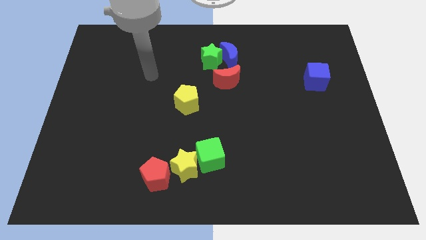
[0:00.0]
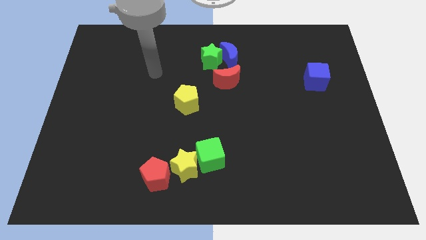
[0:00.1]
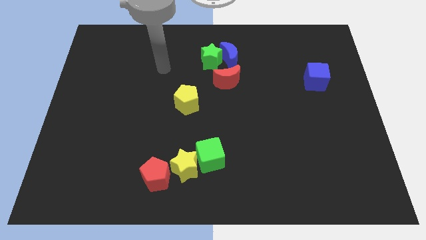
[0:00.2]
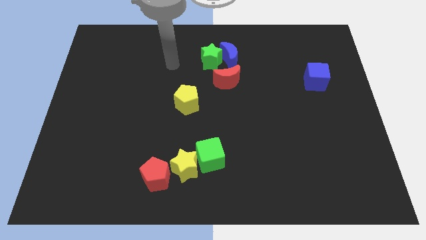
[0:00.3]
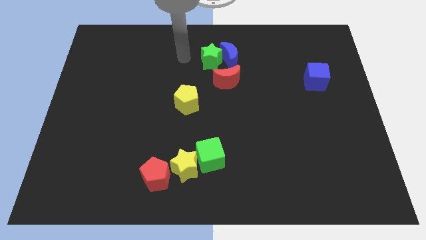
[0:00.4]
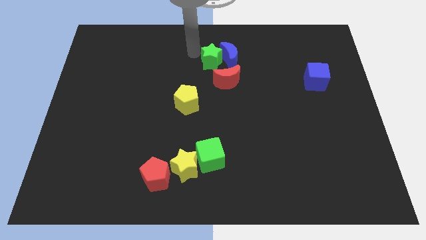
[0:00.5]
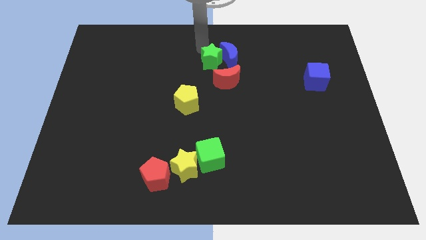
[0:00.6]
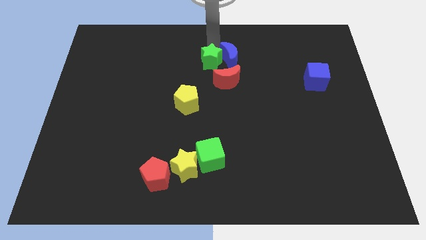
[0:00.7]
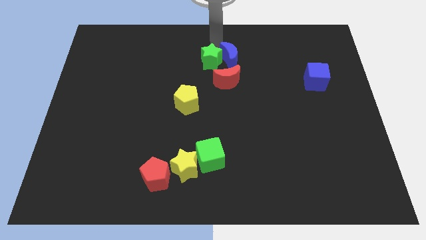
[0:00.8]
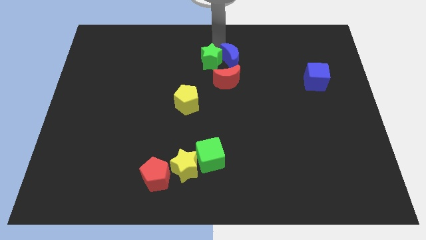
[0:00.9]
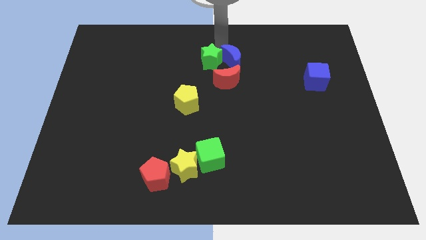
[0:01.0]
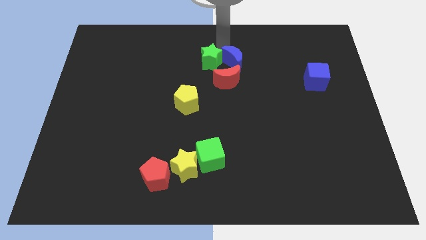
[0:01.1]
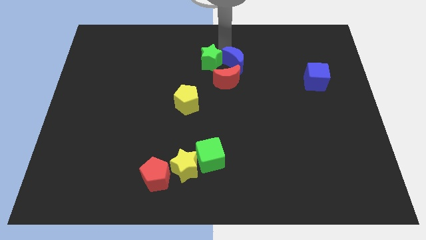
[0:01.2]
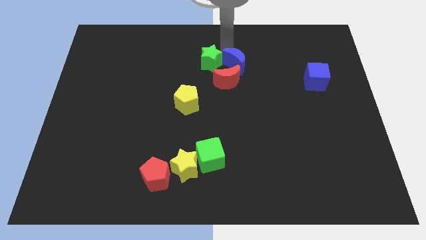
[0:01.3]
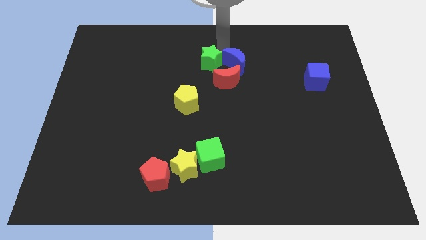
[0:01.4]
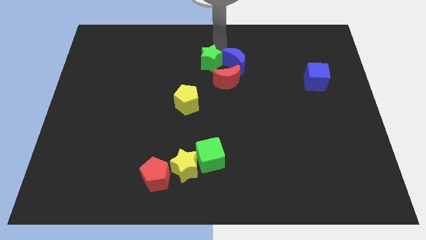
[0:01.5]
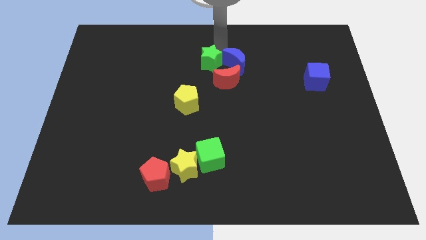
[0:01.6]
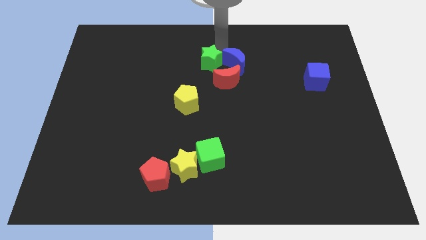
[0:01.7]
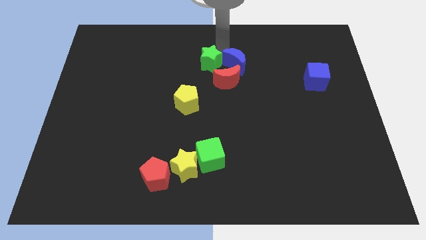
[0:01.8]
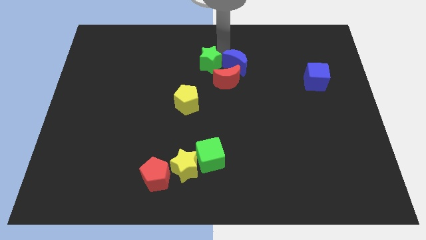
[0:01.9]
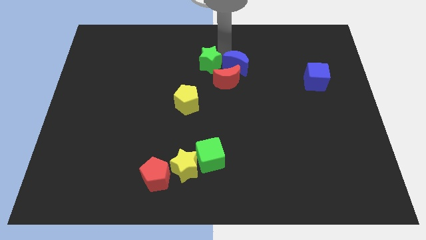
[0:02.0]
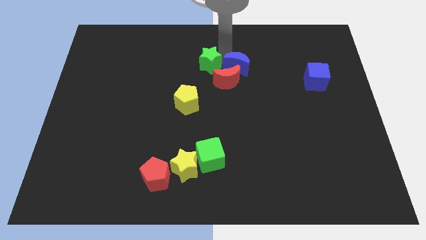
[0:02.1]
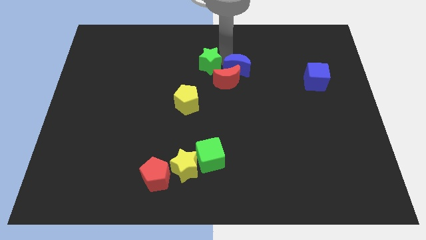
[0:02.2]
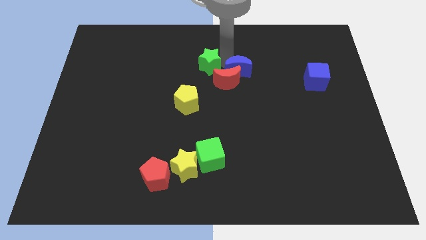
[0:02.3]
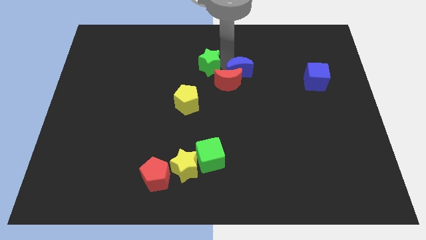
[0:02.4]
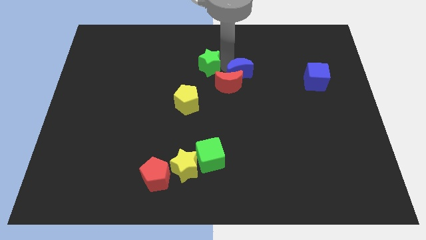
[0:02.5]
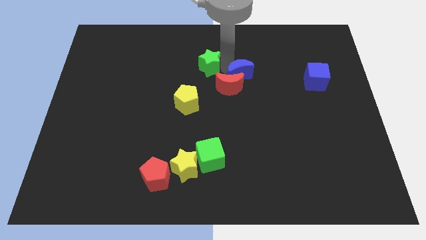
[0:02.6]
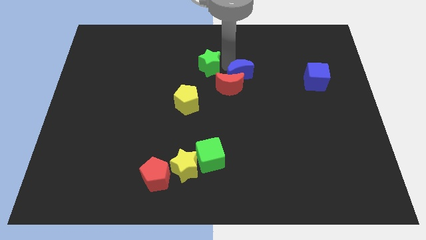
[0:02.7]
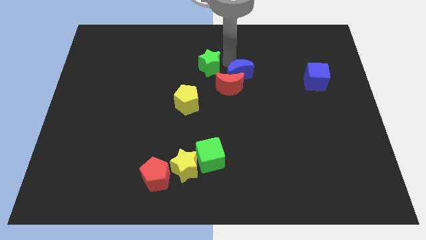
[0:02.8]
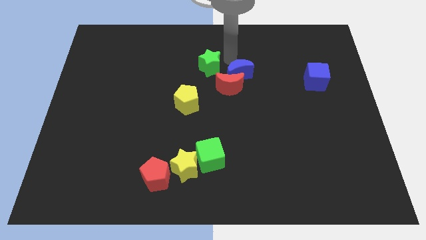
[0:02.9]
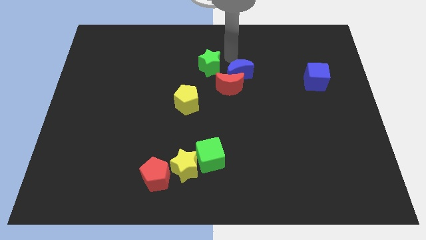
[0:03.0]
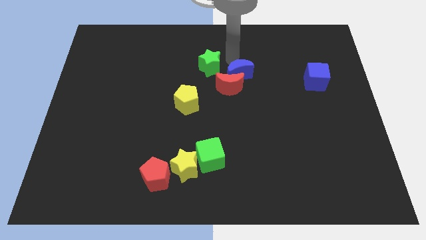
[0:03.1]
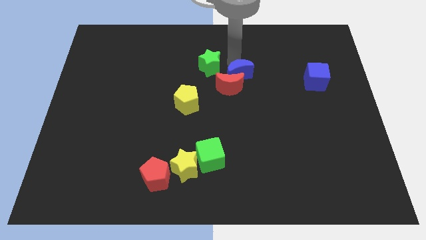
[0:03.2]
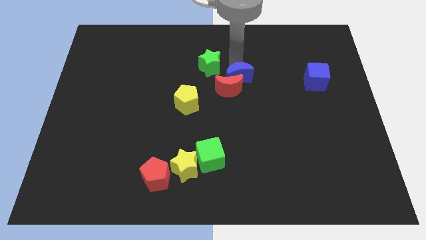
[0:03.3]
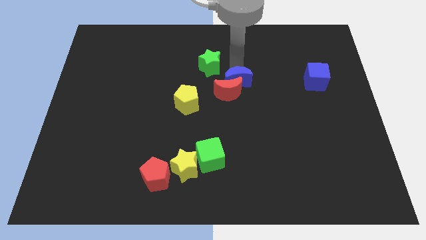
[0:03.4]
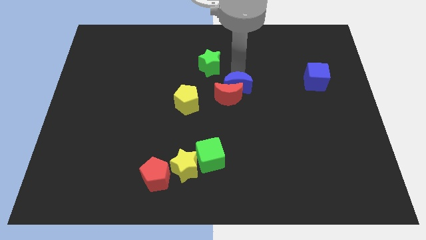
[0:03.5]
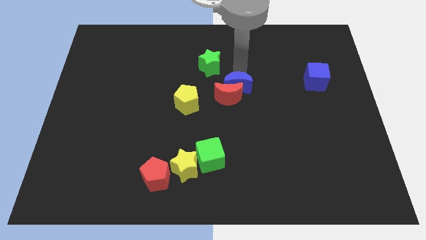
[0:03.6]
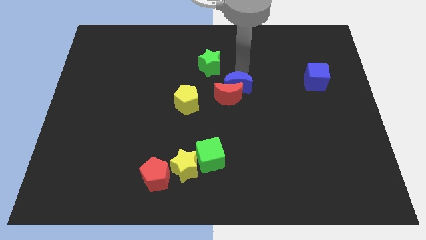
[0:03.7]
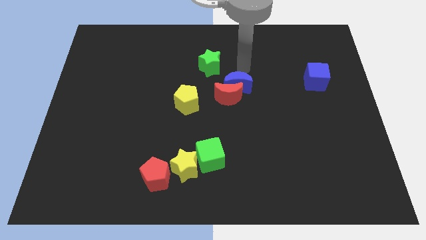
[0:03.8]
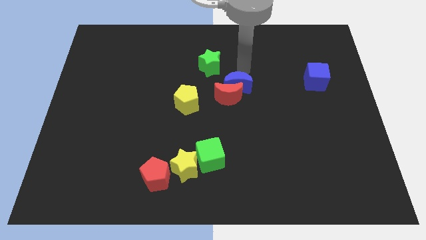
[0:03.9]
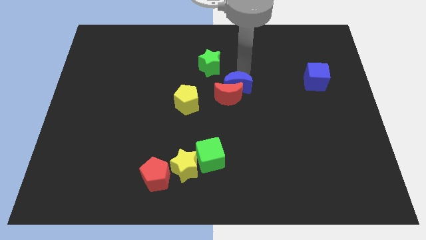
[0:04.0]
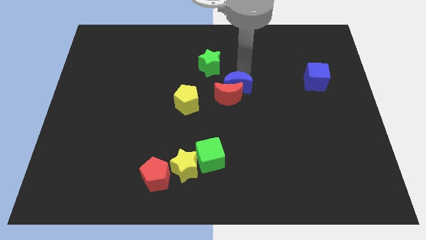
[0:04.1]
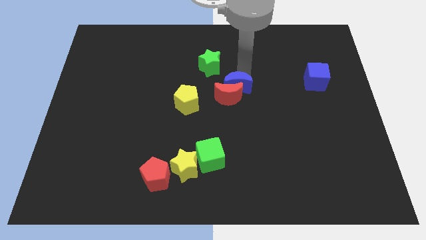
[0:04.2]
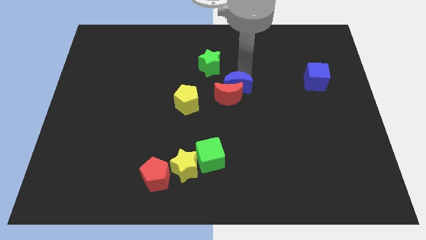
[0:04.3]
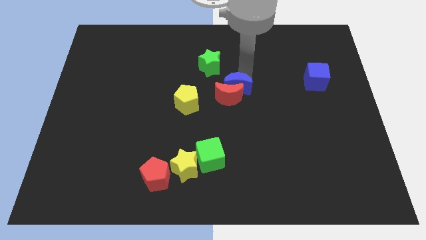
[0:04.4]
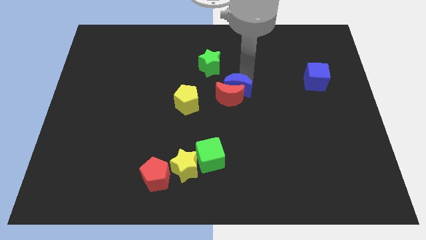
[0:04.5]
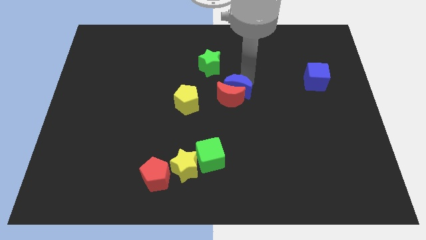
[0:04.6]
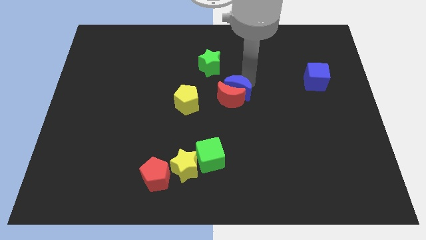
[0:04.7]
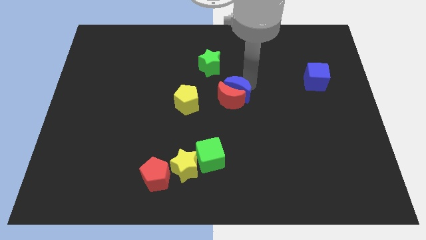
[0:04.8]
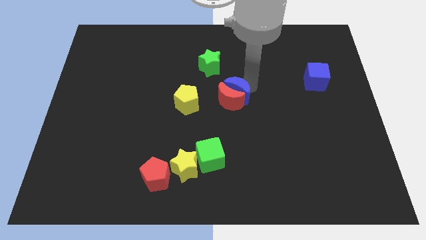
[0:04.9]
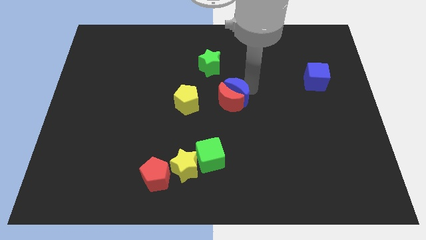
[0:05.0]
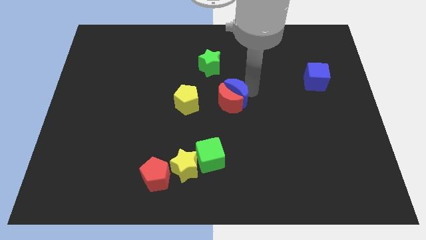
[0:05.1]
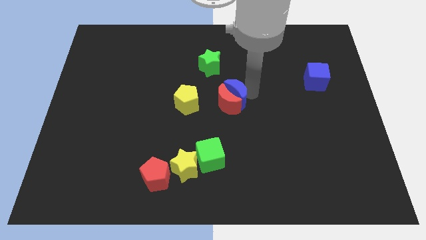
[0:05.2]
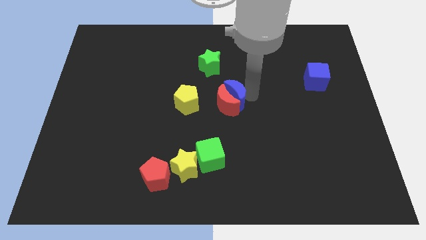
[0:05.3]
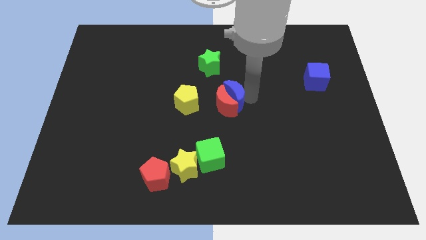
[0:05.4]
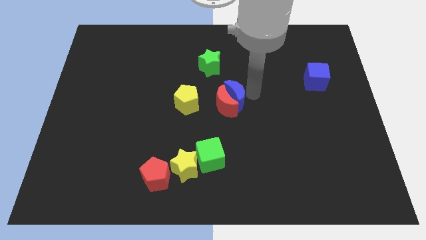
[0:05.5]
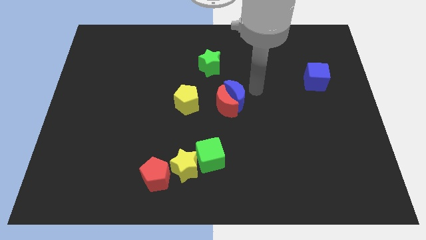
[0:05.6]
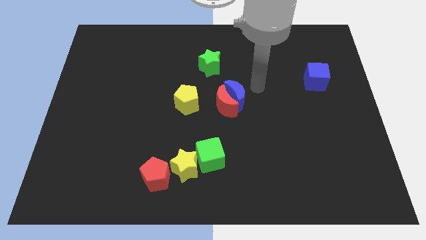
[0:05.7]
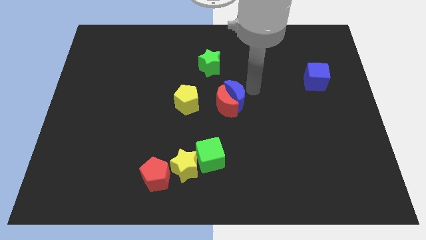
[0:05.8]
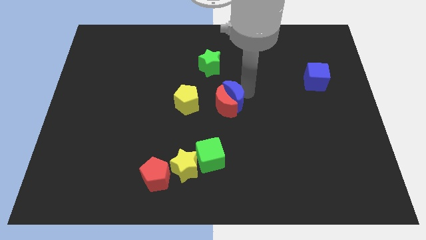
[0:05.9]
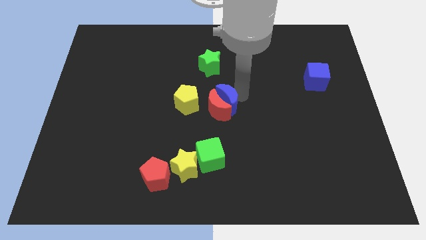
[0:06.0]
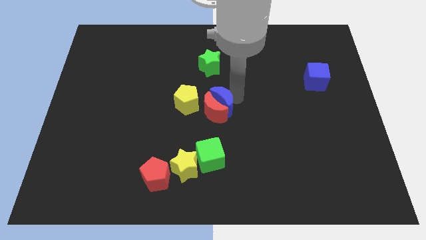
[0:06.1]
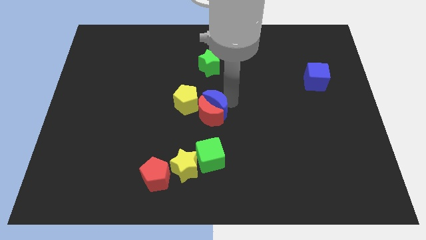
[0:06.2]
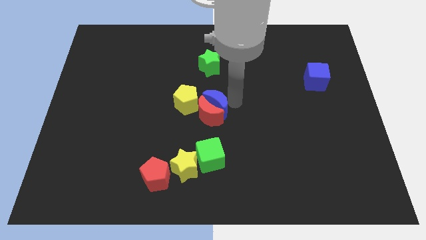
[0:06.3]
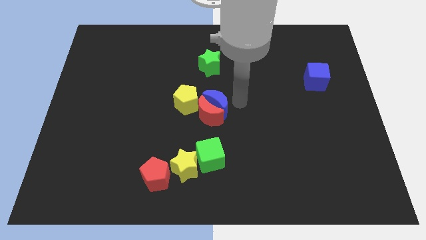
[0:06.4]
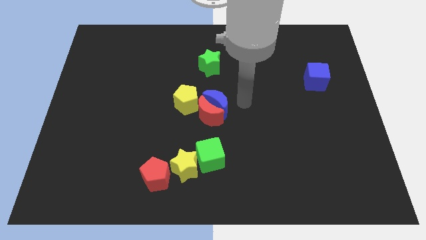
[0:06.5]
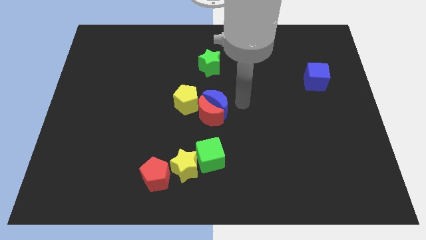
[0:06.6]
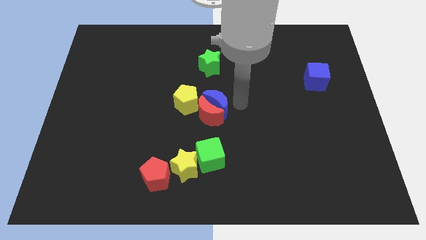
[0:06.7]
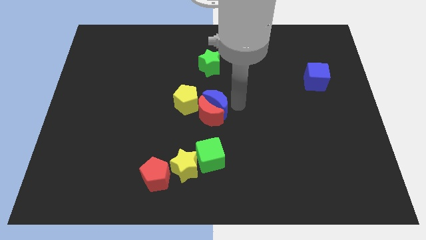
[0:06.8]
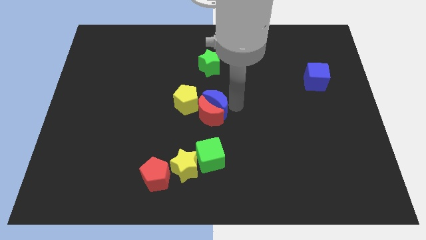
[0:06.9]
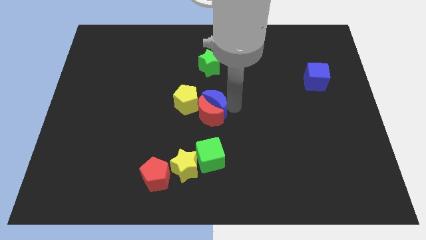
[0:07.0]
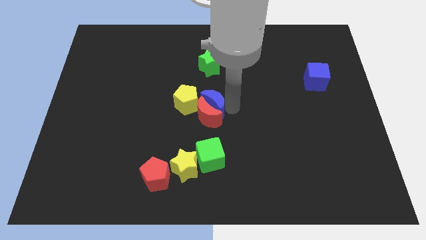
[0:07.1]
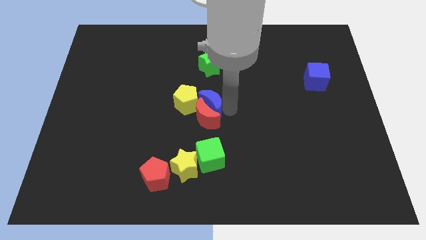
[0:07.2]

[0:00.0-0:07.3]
put the blue moon close to the yellow pentagon
